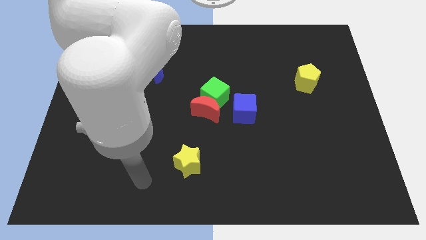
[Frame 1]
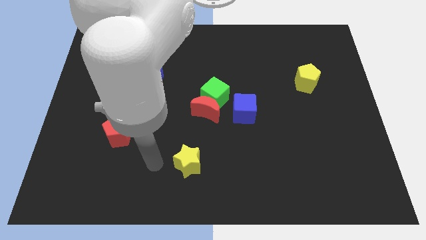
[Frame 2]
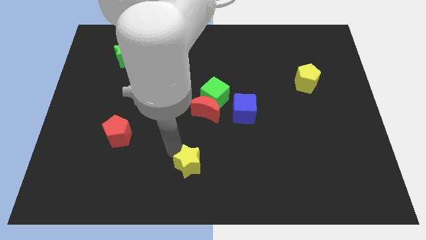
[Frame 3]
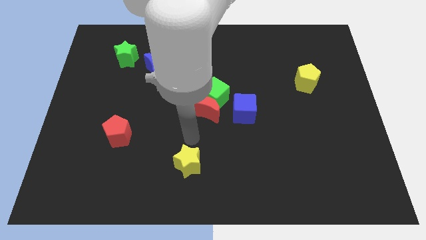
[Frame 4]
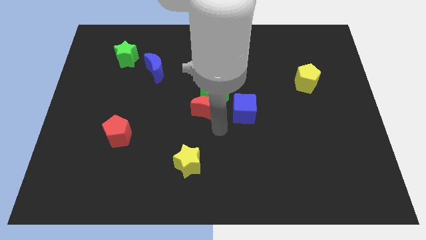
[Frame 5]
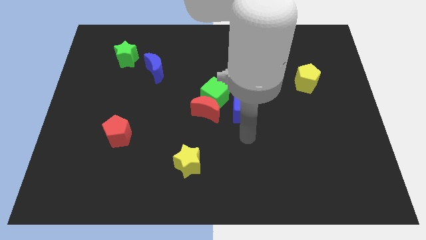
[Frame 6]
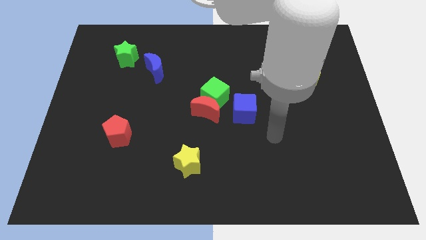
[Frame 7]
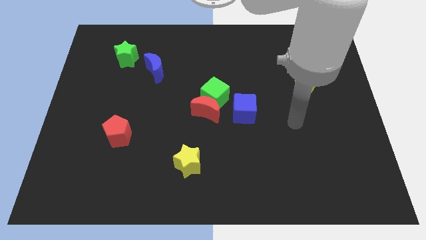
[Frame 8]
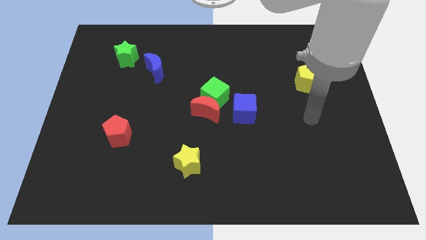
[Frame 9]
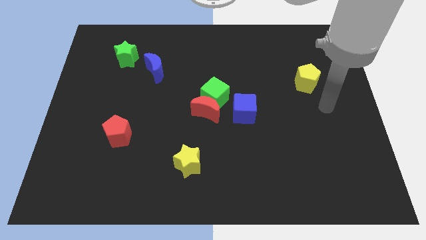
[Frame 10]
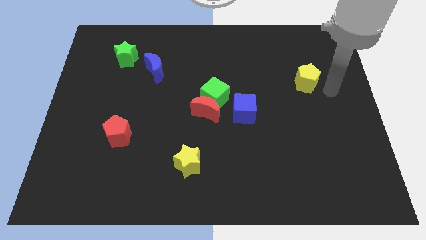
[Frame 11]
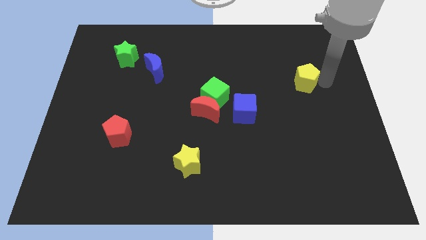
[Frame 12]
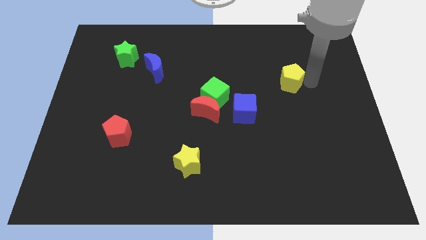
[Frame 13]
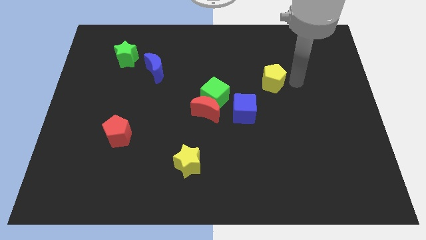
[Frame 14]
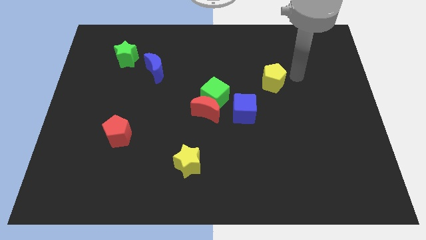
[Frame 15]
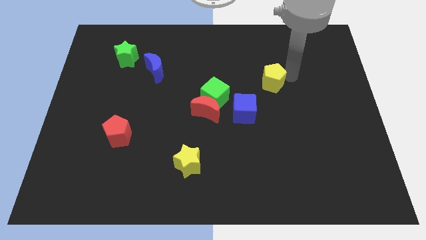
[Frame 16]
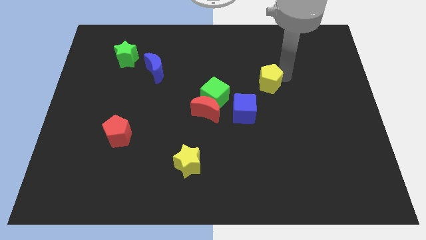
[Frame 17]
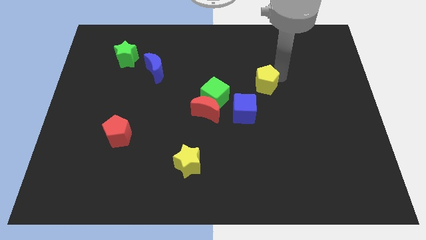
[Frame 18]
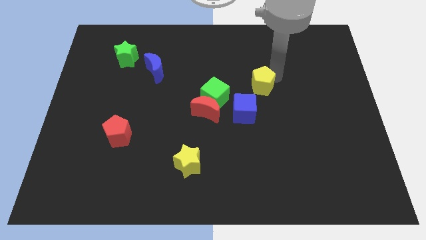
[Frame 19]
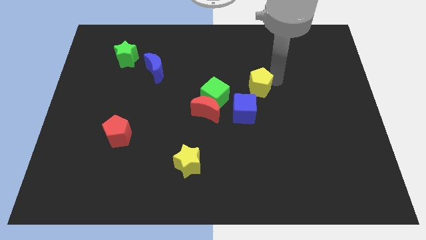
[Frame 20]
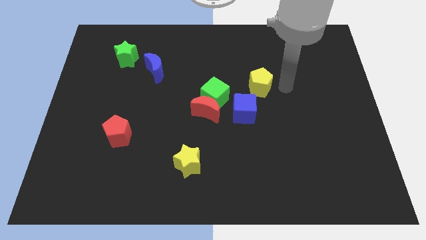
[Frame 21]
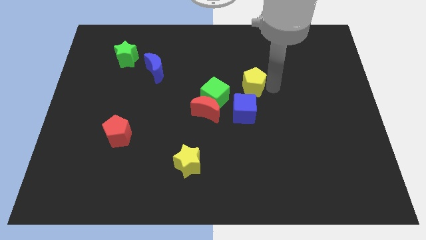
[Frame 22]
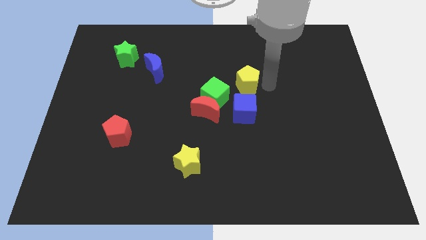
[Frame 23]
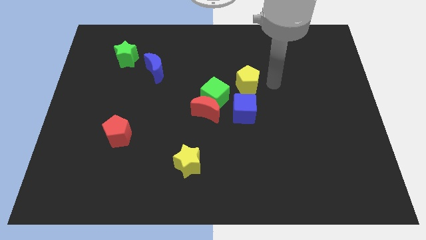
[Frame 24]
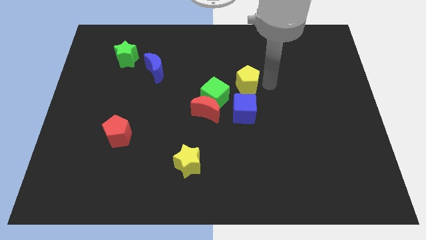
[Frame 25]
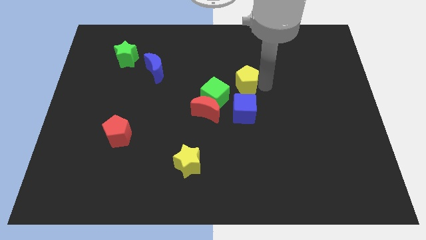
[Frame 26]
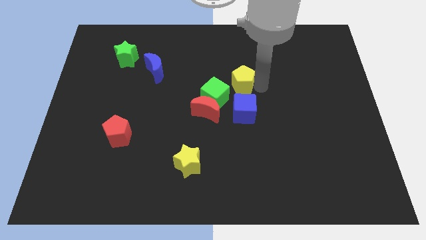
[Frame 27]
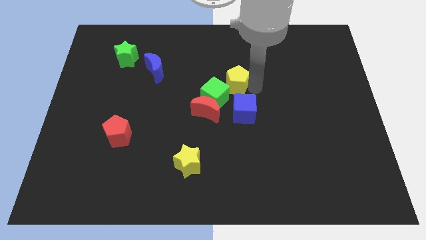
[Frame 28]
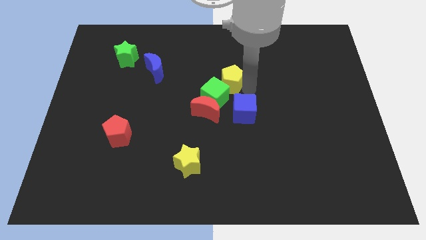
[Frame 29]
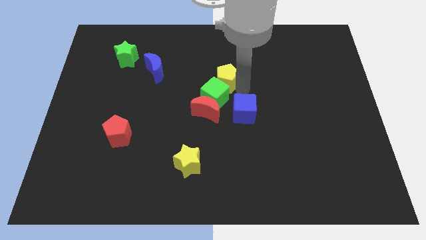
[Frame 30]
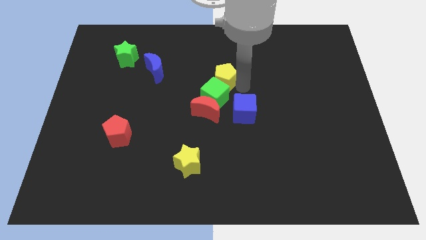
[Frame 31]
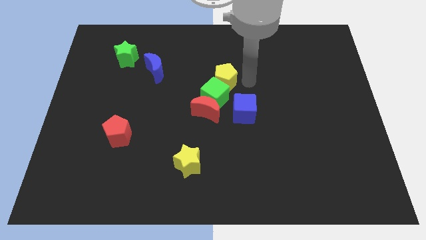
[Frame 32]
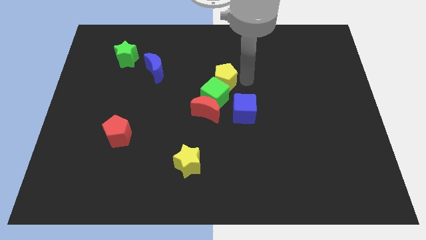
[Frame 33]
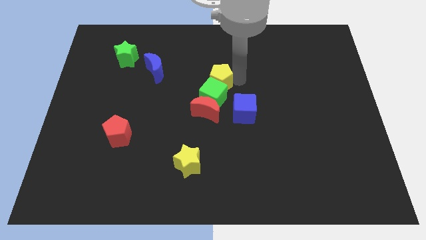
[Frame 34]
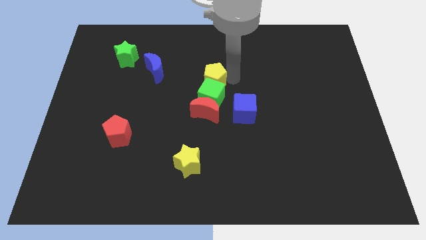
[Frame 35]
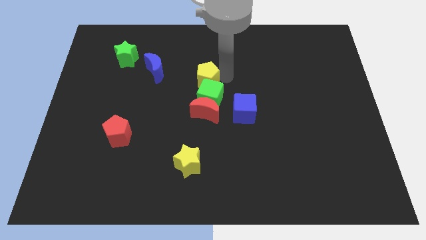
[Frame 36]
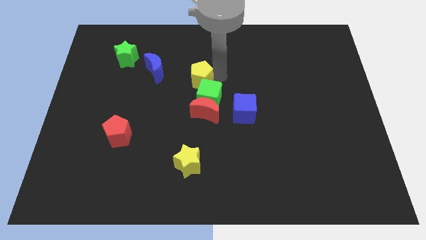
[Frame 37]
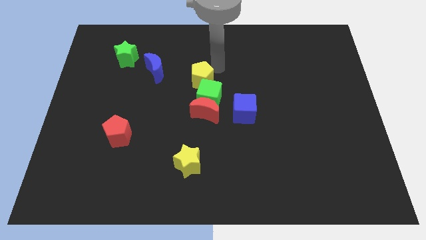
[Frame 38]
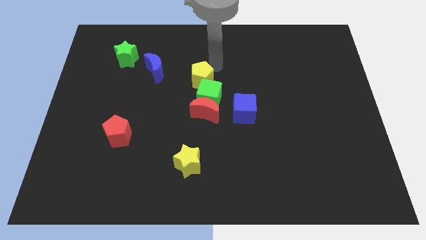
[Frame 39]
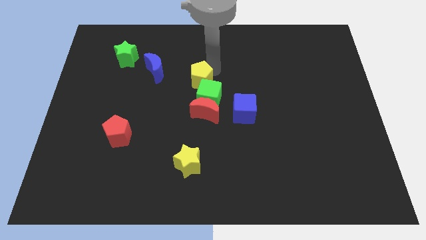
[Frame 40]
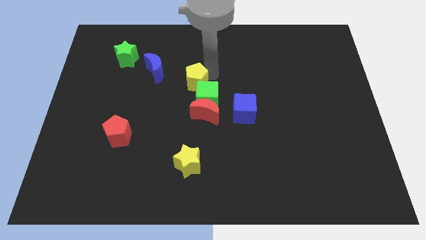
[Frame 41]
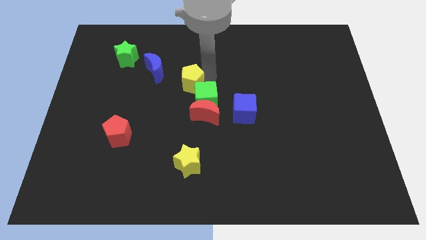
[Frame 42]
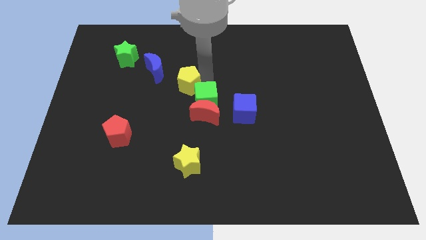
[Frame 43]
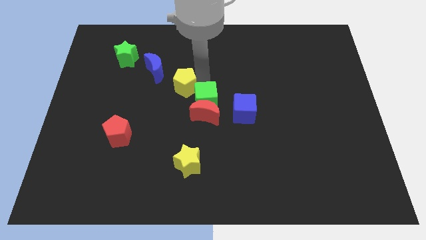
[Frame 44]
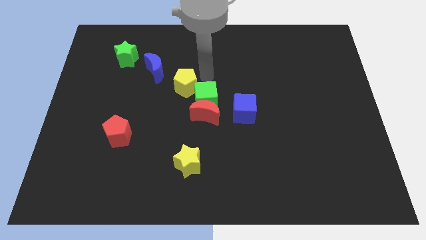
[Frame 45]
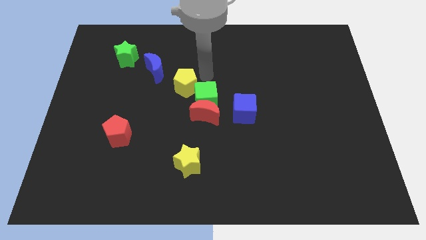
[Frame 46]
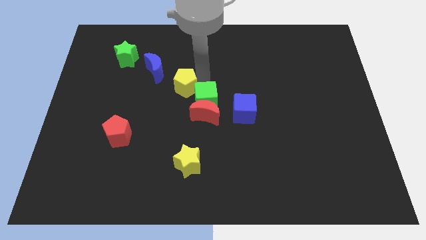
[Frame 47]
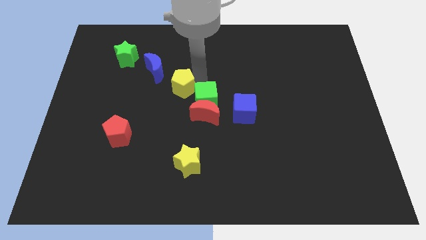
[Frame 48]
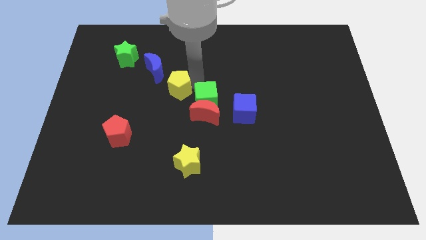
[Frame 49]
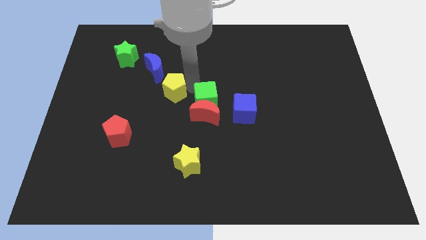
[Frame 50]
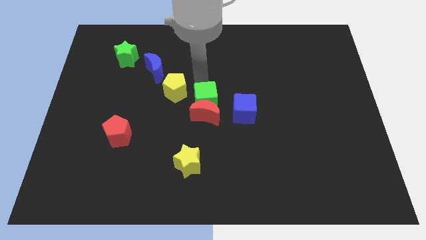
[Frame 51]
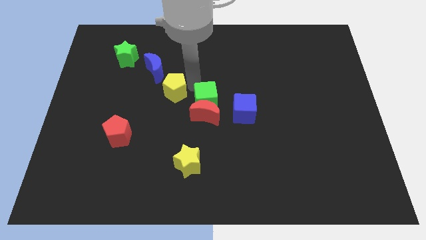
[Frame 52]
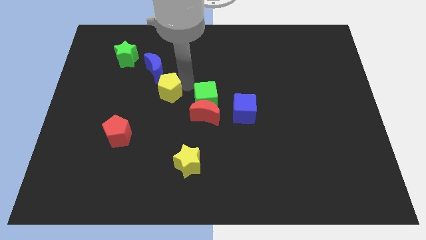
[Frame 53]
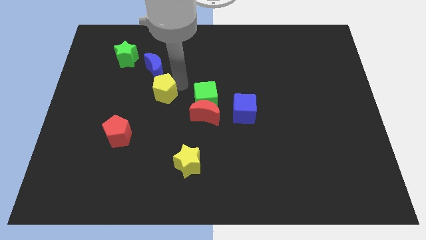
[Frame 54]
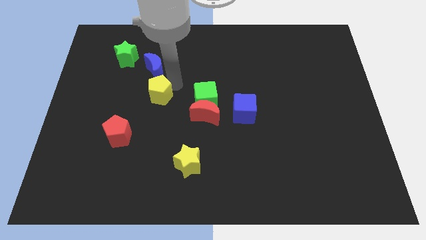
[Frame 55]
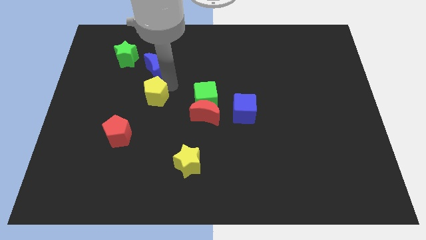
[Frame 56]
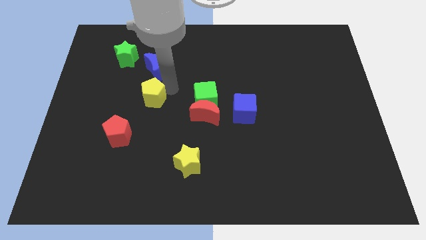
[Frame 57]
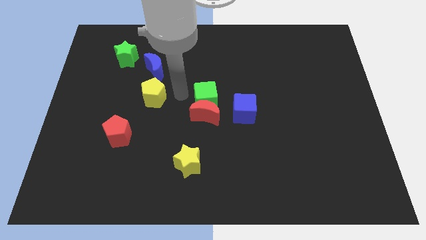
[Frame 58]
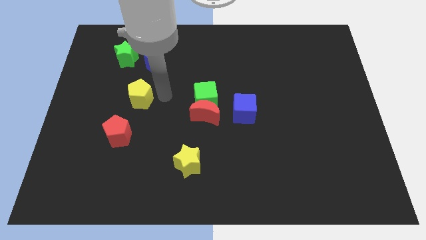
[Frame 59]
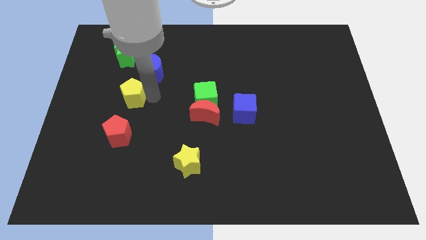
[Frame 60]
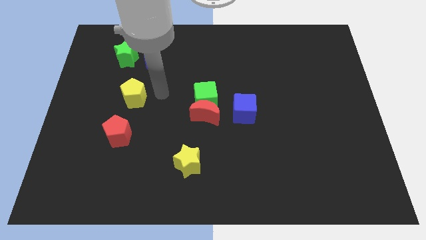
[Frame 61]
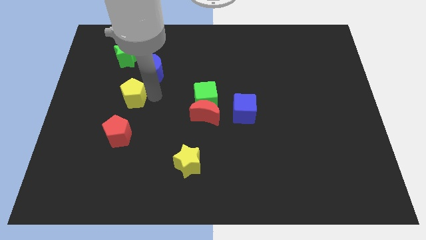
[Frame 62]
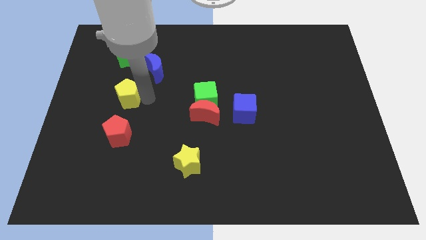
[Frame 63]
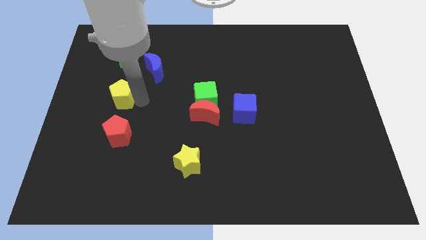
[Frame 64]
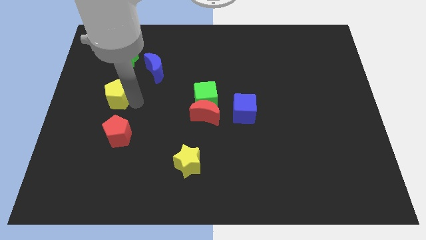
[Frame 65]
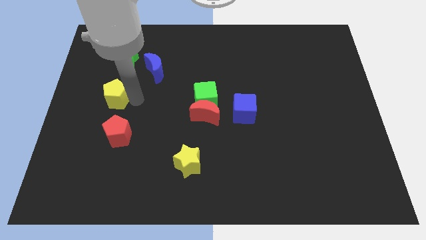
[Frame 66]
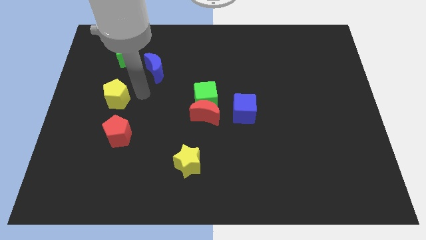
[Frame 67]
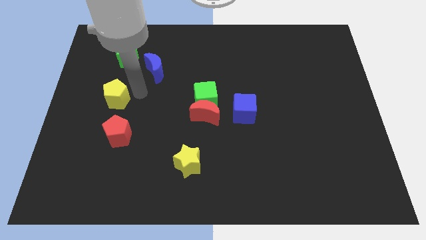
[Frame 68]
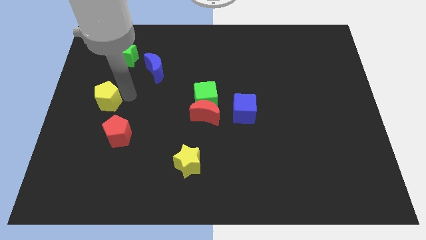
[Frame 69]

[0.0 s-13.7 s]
move the yellow pentagon to the left side of the board
